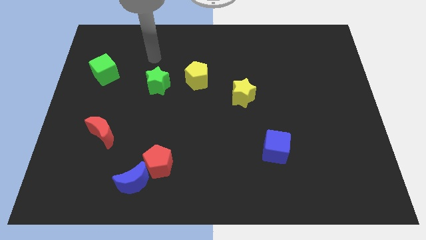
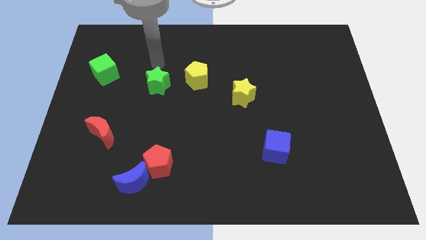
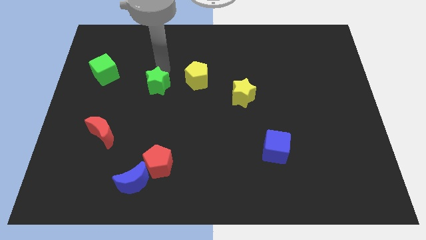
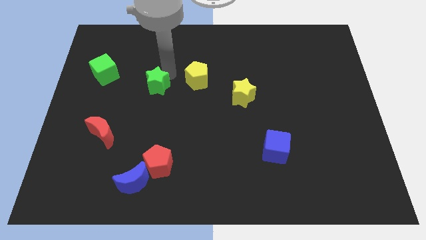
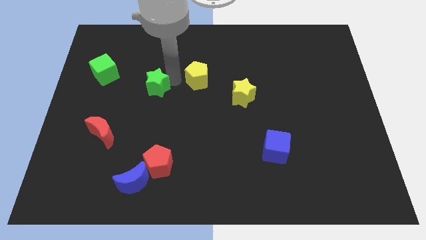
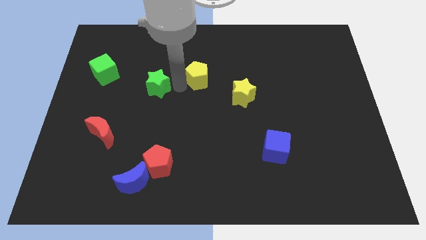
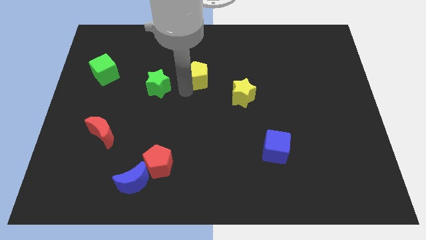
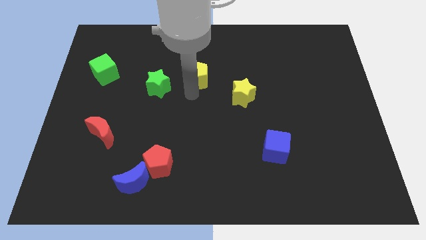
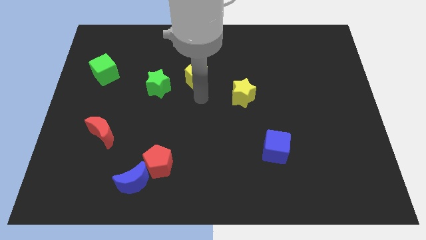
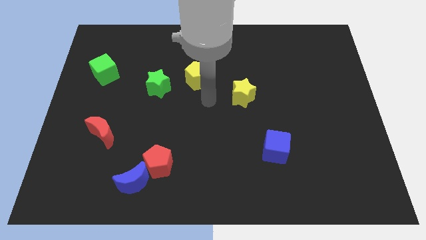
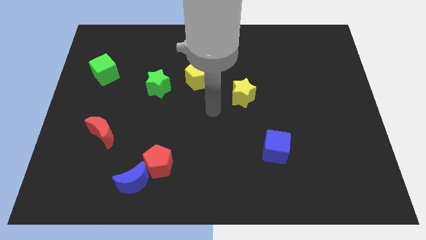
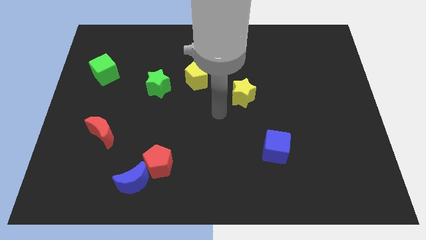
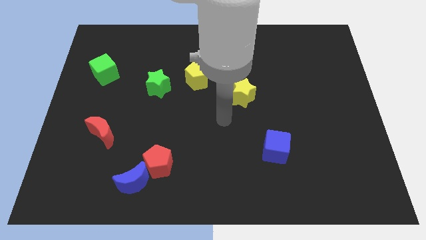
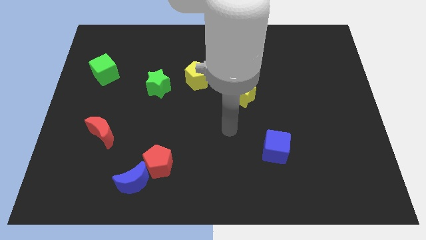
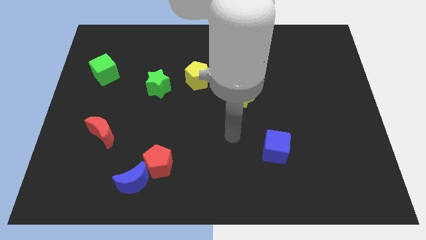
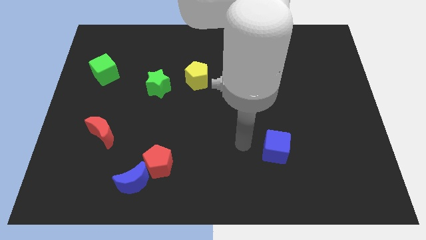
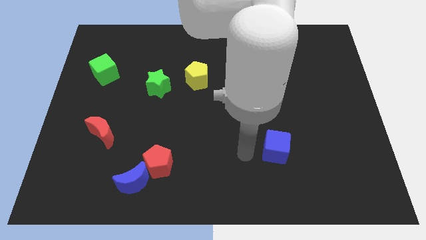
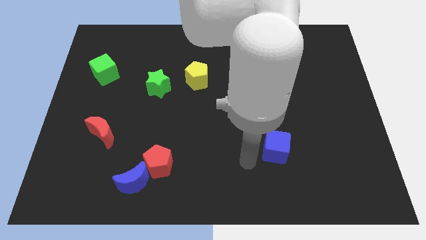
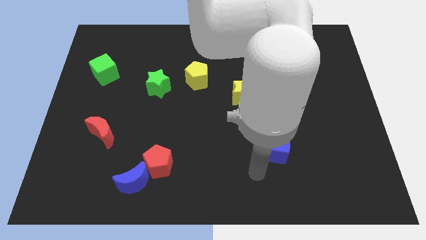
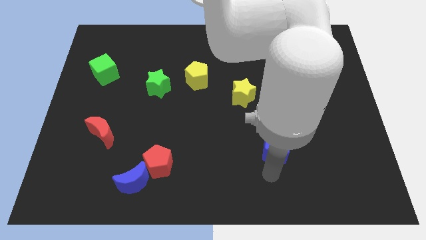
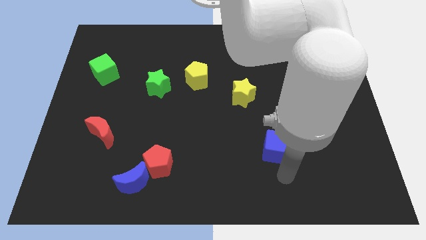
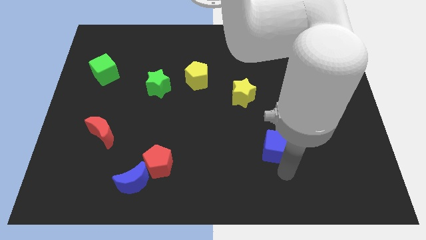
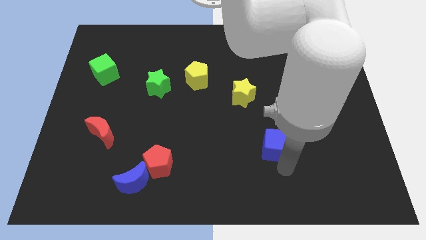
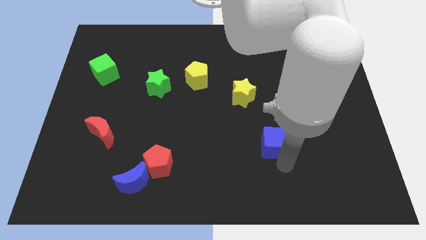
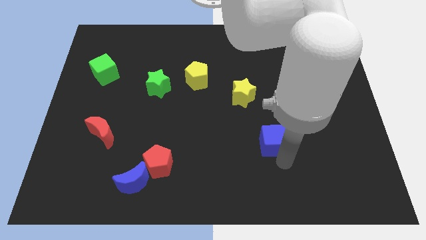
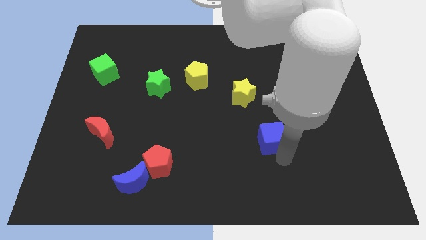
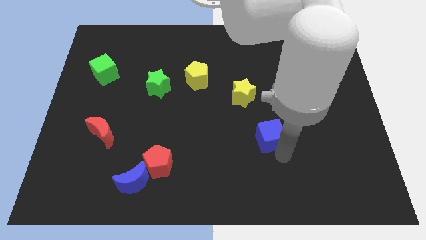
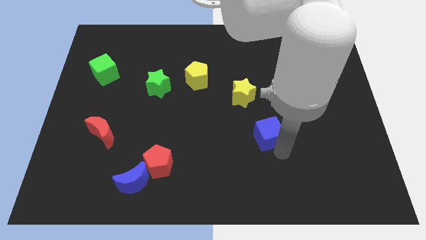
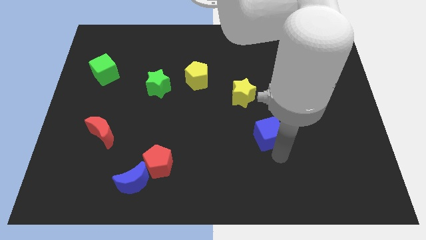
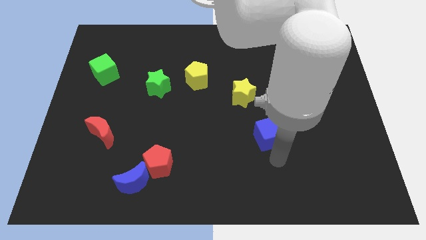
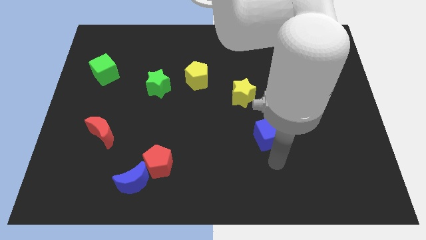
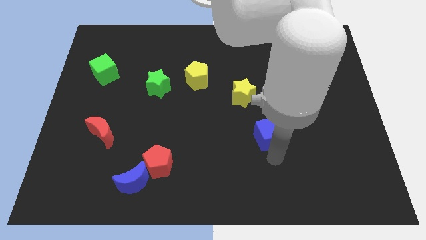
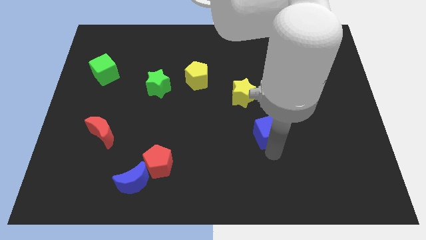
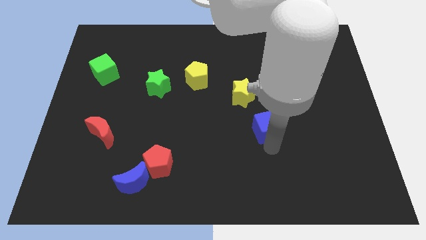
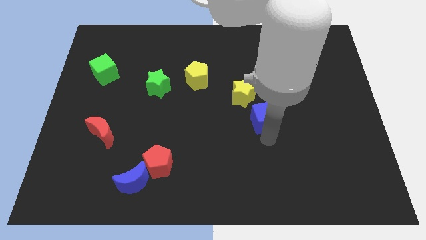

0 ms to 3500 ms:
push the blue cube somewhat upwards

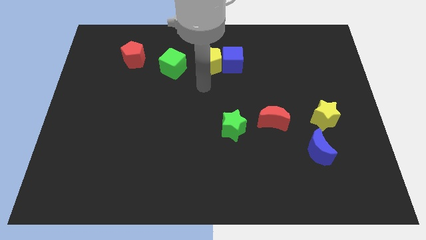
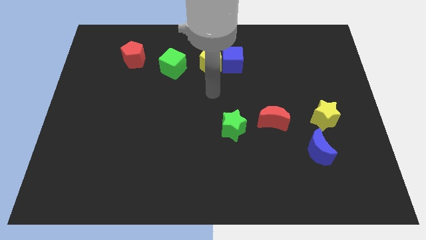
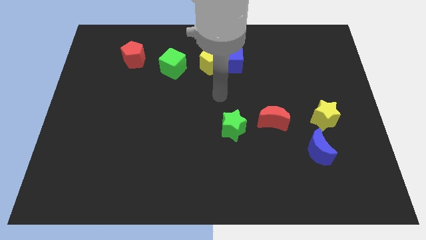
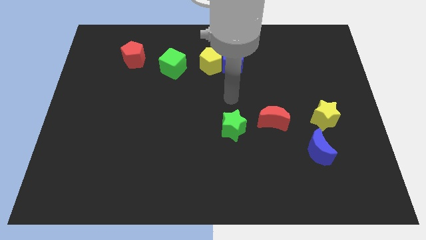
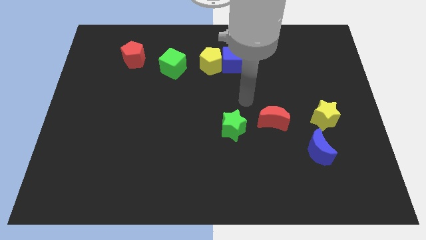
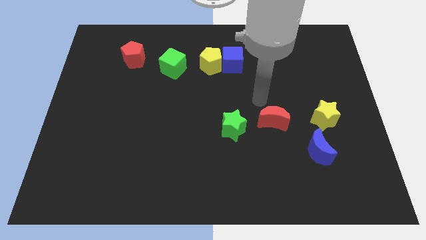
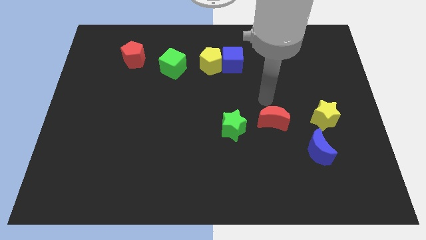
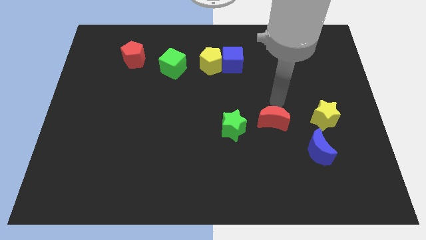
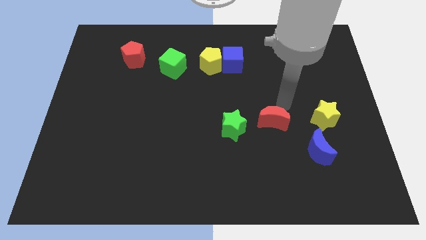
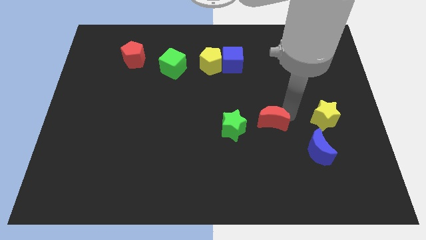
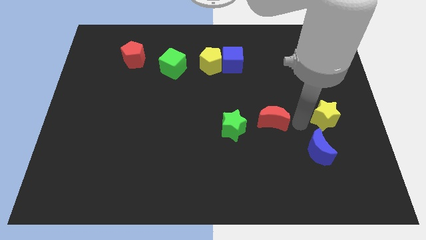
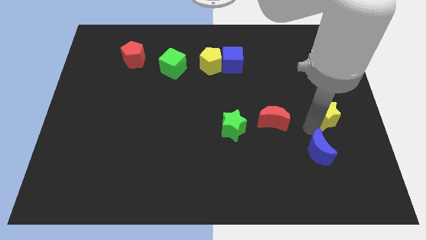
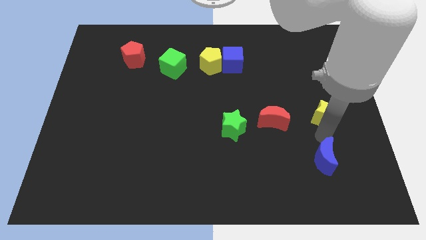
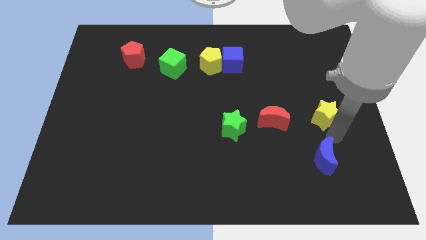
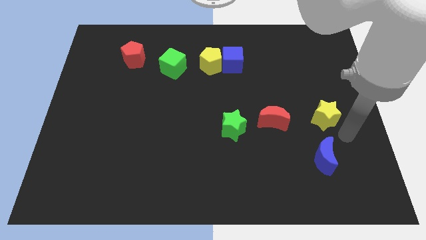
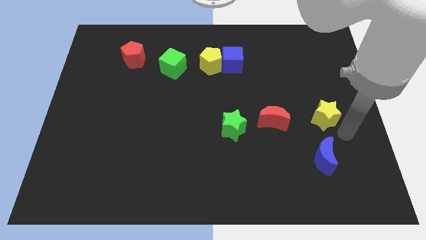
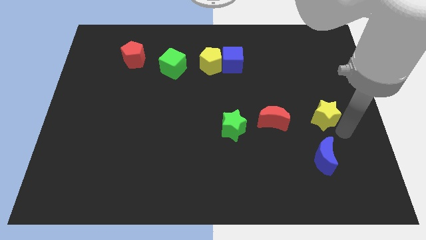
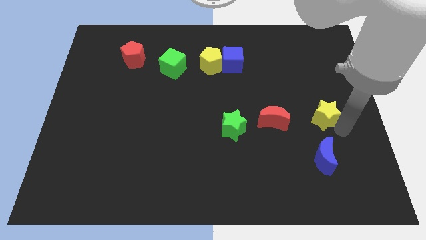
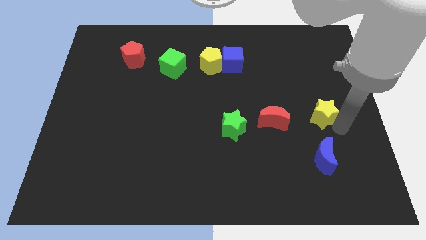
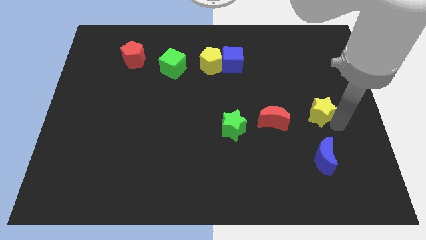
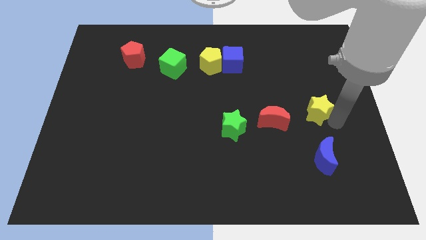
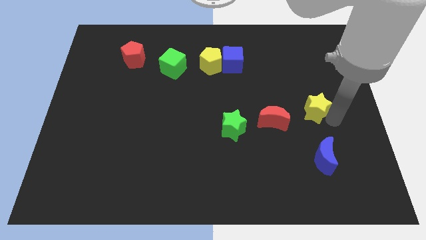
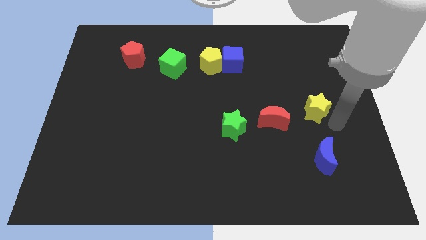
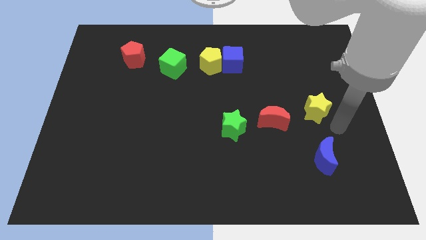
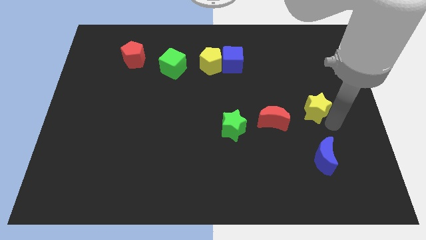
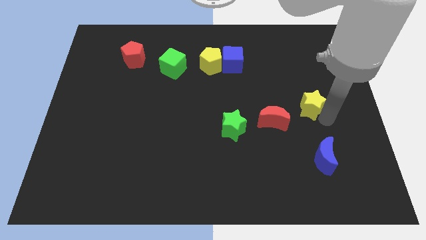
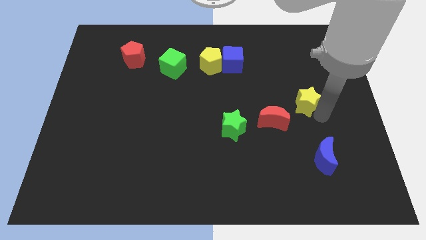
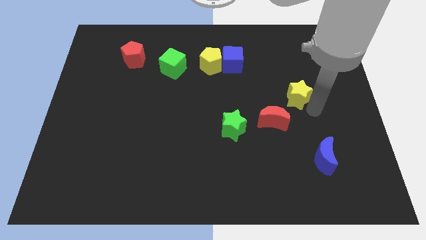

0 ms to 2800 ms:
push the yellow star a bit diagonally up and to the left

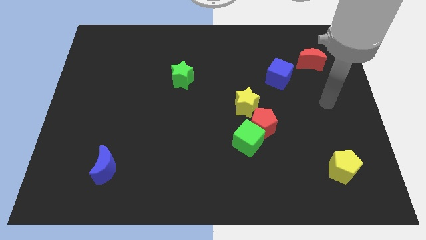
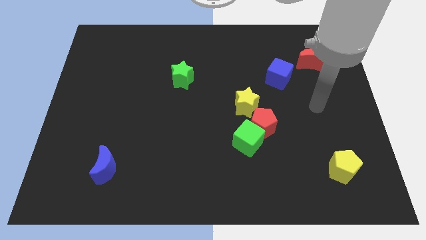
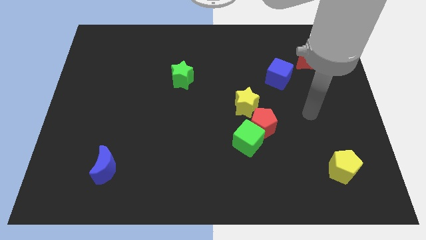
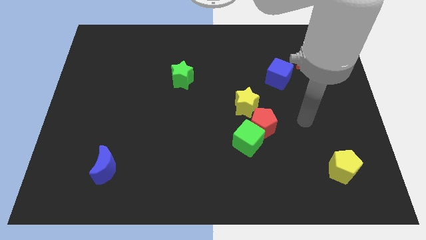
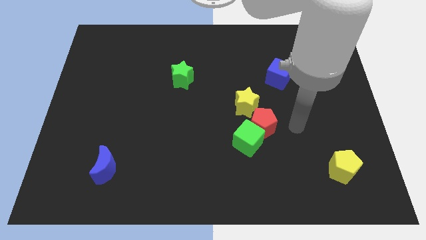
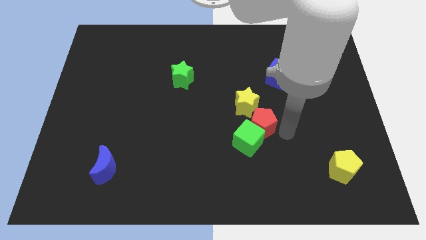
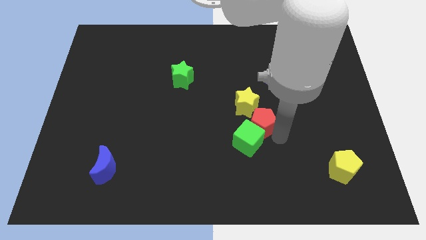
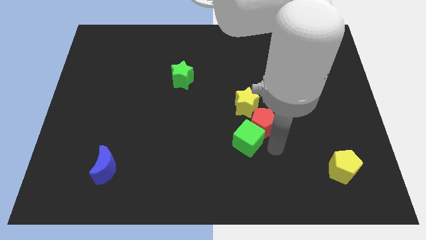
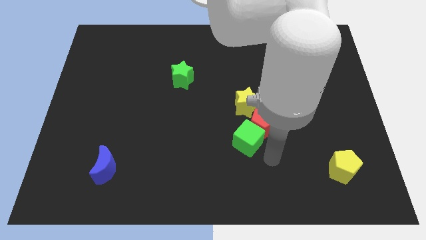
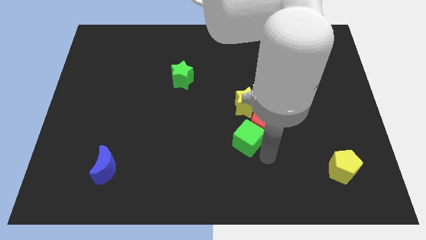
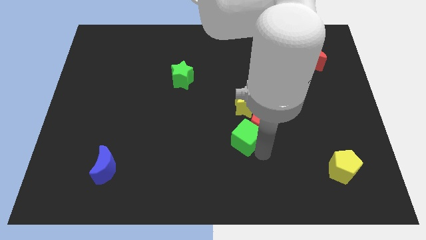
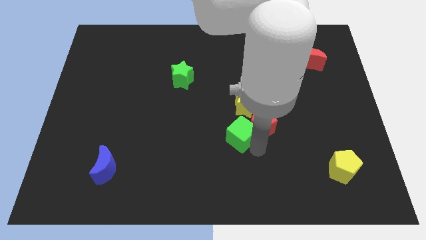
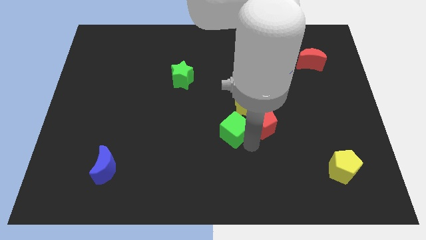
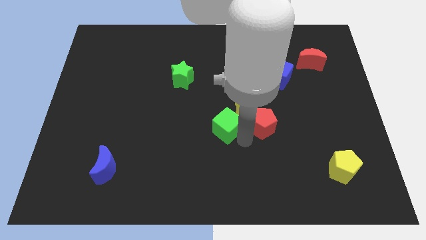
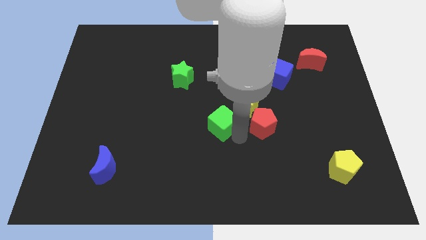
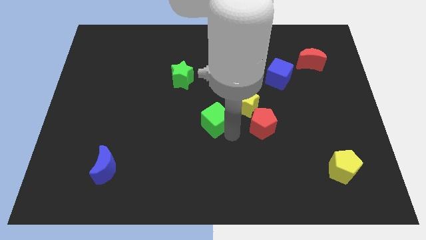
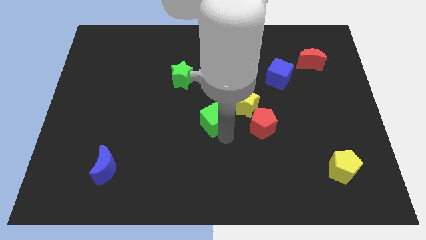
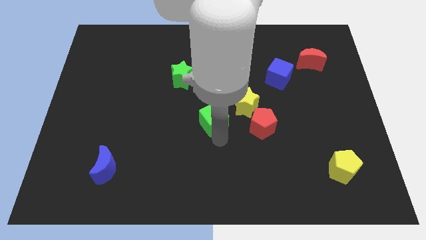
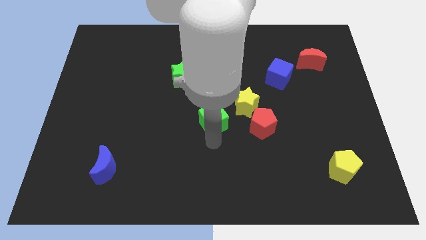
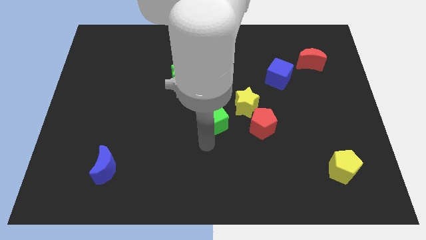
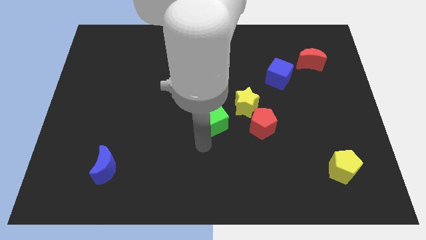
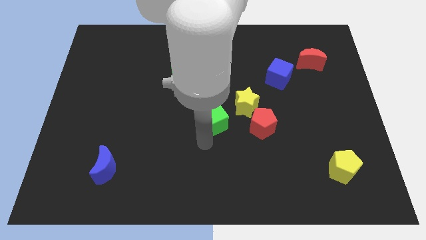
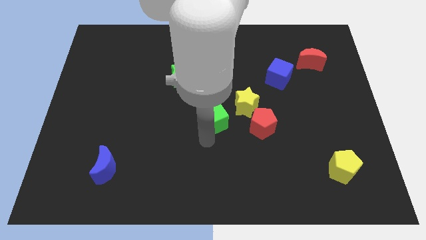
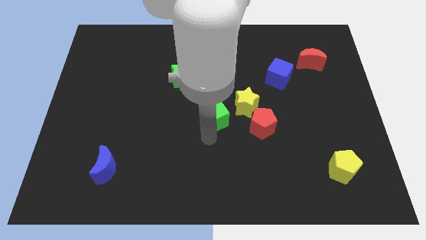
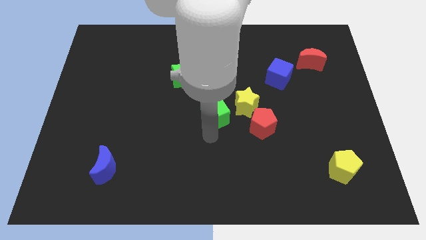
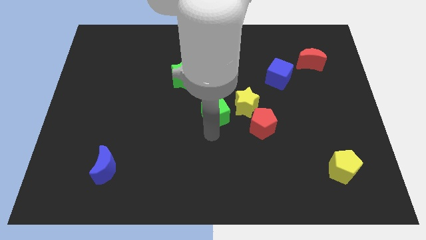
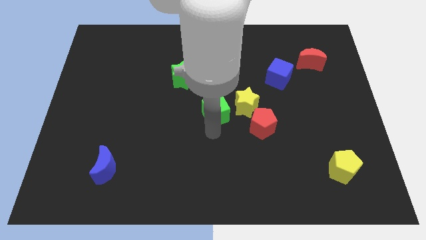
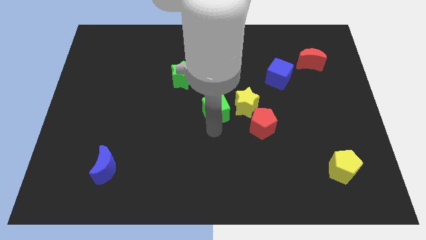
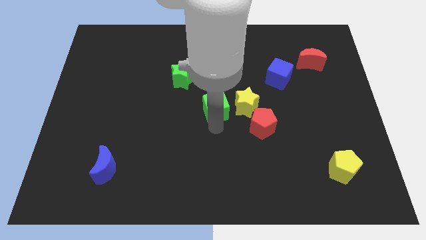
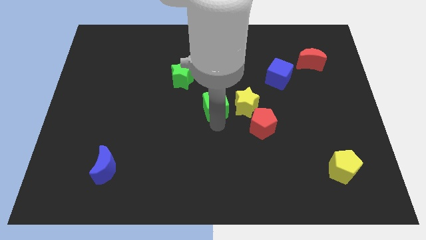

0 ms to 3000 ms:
push the green cube upwards somewhat
